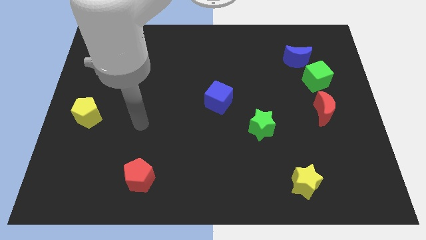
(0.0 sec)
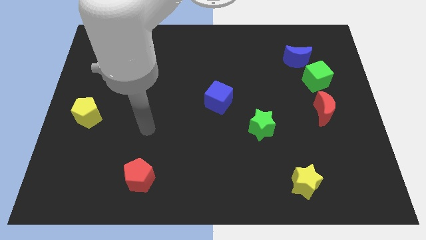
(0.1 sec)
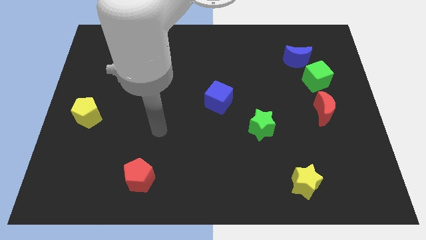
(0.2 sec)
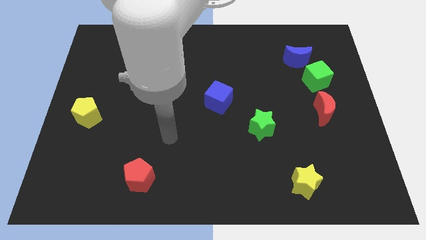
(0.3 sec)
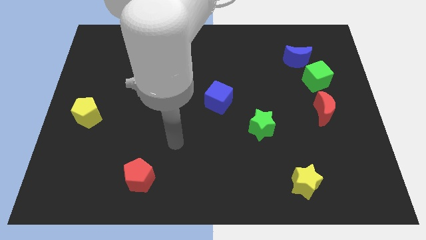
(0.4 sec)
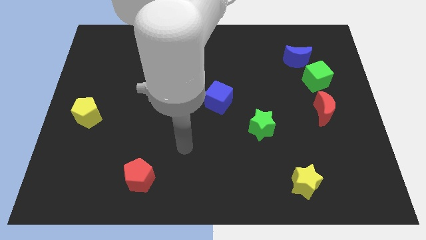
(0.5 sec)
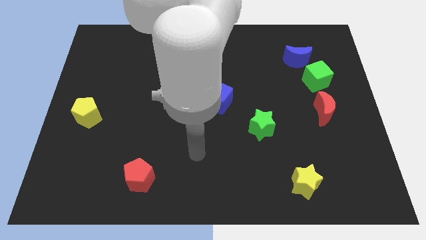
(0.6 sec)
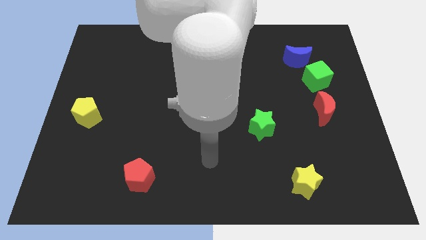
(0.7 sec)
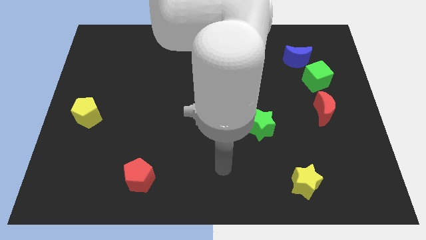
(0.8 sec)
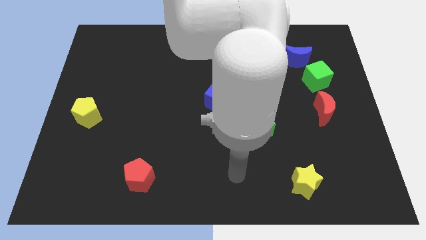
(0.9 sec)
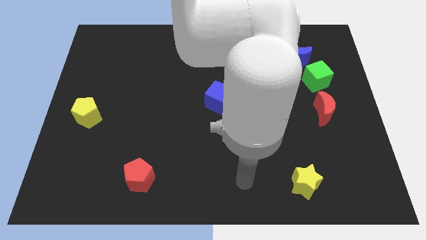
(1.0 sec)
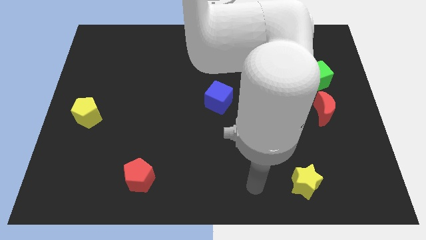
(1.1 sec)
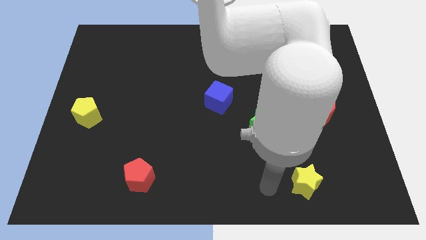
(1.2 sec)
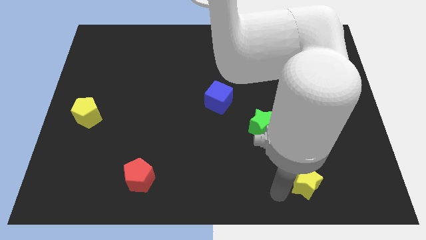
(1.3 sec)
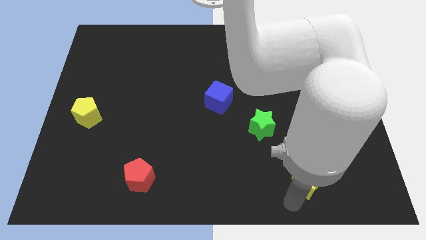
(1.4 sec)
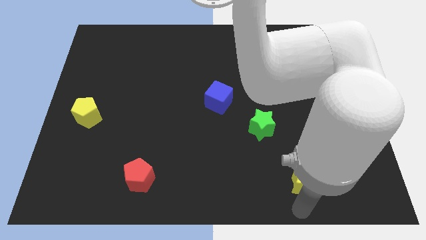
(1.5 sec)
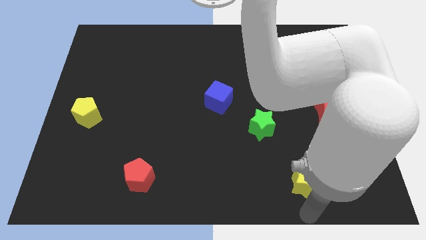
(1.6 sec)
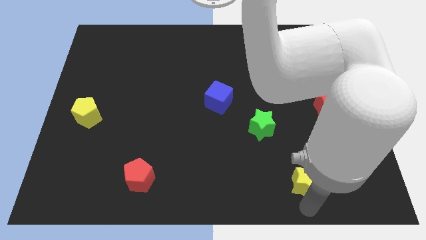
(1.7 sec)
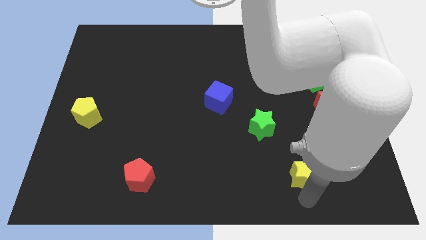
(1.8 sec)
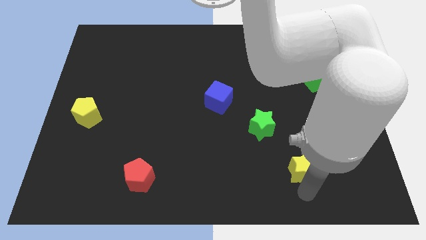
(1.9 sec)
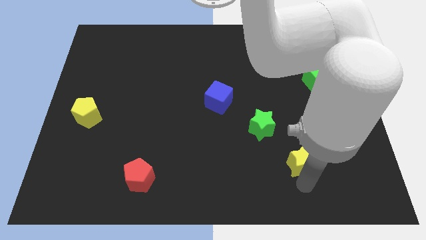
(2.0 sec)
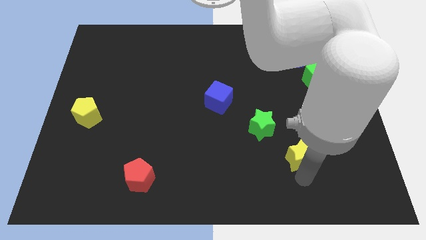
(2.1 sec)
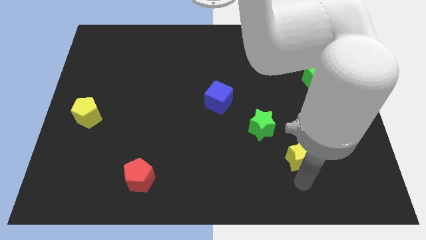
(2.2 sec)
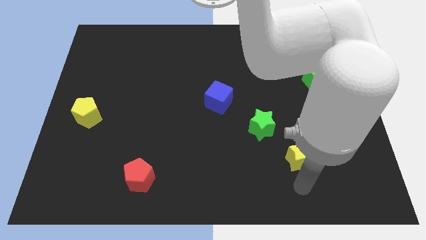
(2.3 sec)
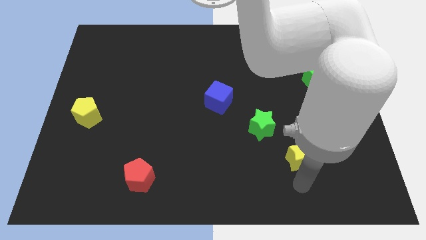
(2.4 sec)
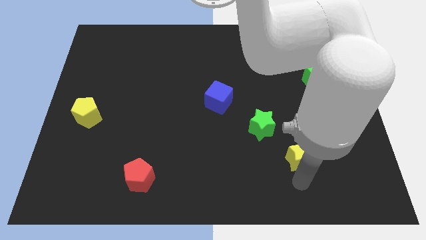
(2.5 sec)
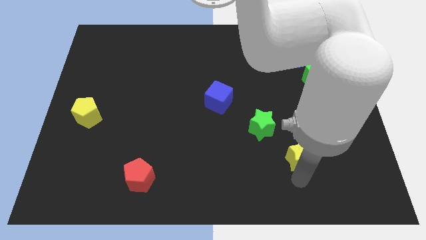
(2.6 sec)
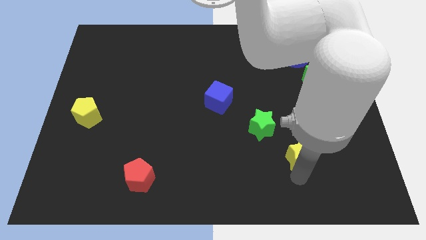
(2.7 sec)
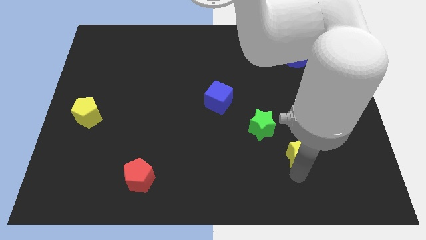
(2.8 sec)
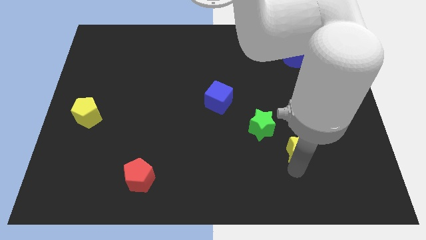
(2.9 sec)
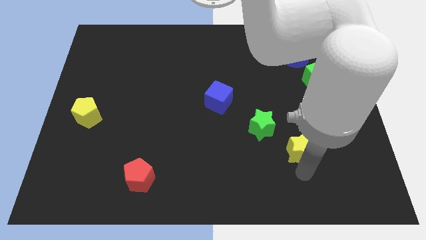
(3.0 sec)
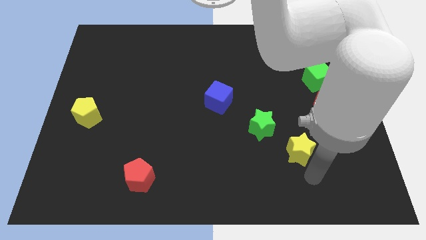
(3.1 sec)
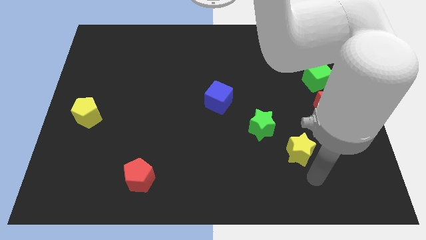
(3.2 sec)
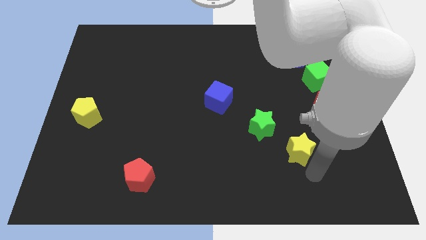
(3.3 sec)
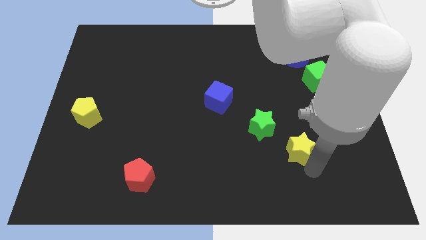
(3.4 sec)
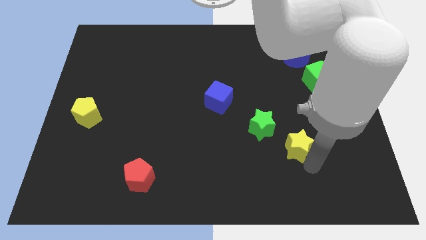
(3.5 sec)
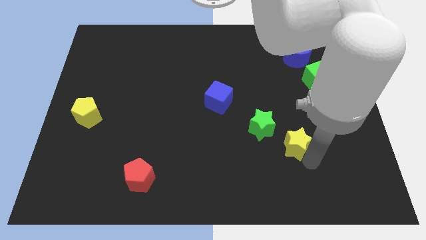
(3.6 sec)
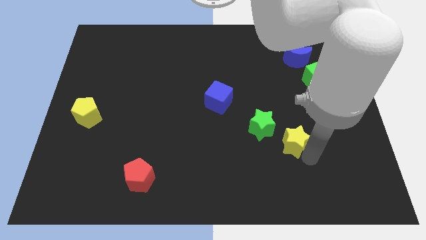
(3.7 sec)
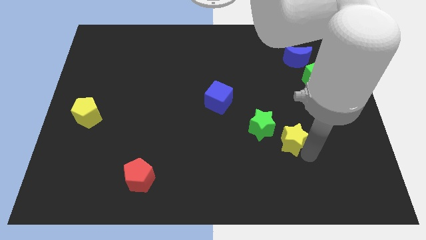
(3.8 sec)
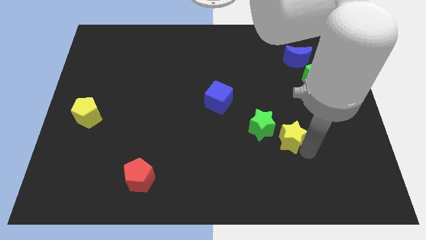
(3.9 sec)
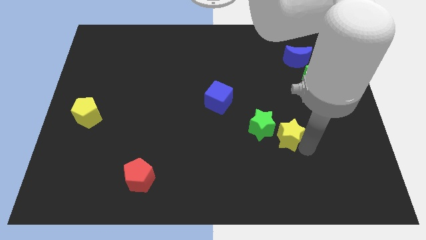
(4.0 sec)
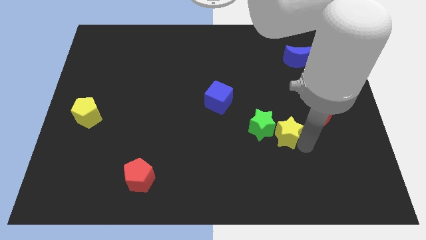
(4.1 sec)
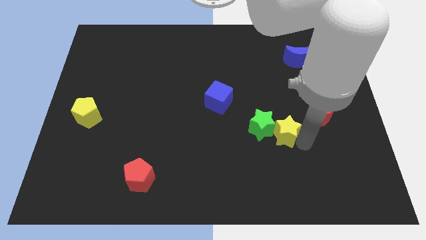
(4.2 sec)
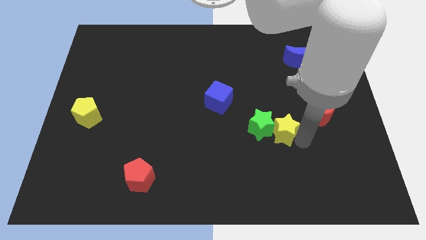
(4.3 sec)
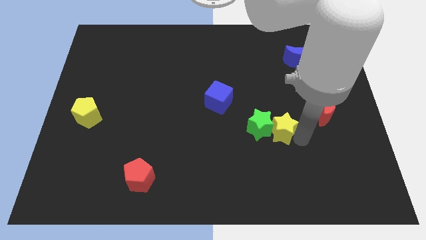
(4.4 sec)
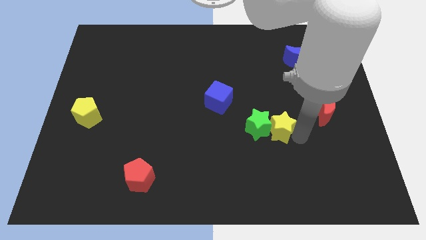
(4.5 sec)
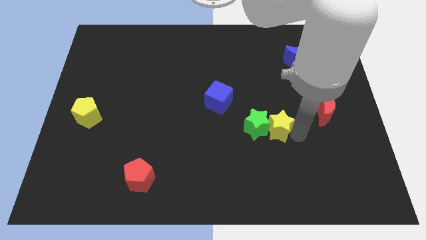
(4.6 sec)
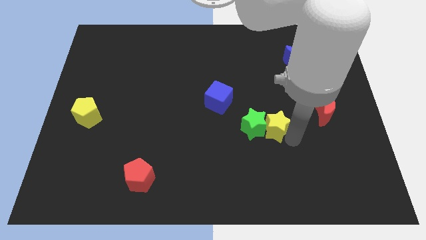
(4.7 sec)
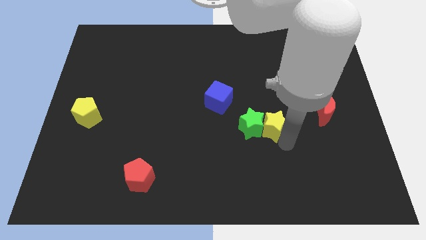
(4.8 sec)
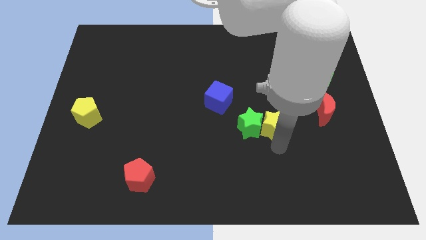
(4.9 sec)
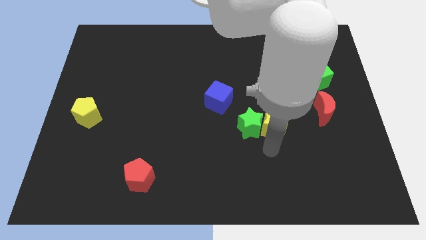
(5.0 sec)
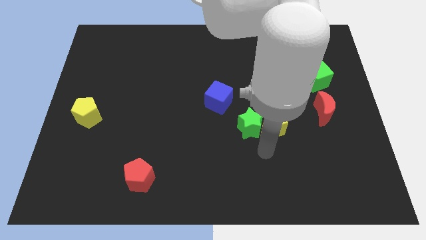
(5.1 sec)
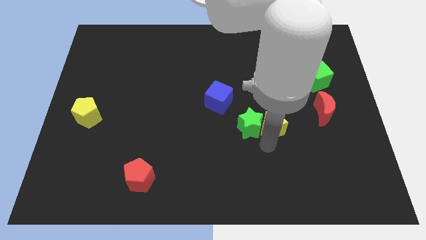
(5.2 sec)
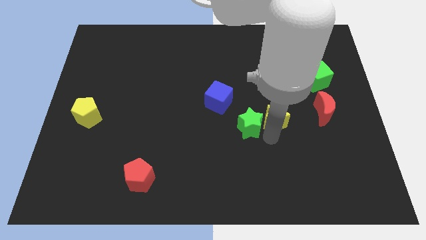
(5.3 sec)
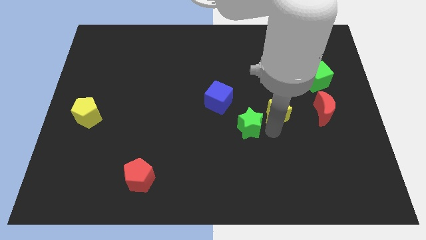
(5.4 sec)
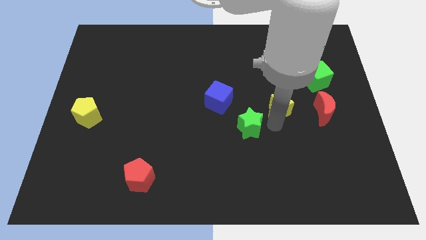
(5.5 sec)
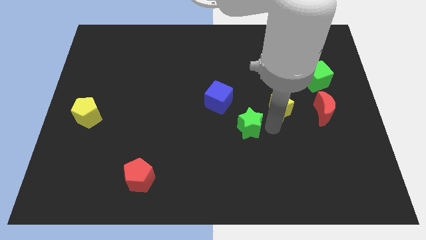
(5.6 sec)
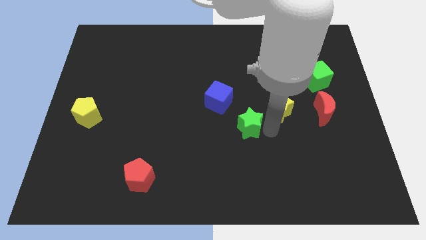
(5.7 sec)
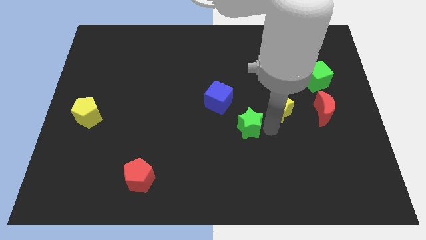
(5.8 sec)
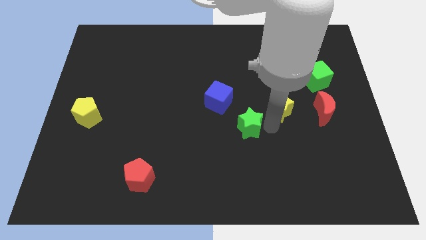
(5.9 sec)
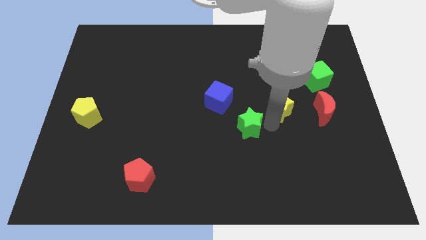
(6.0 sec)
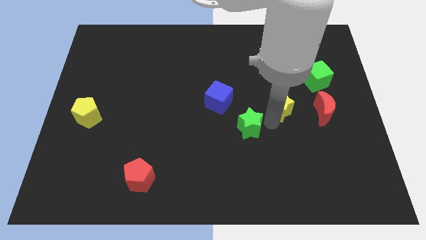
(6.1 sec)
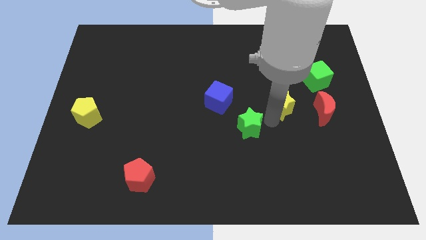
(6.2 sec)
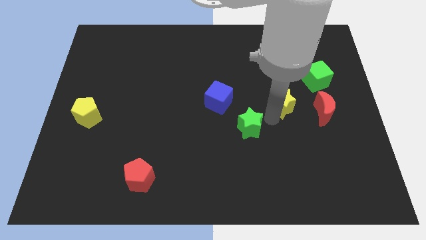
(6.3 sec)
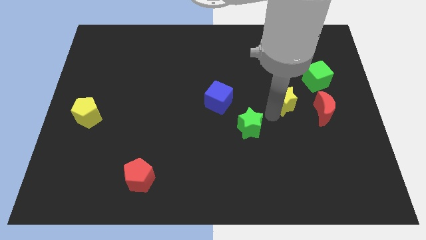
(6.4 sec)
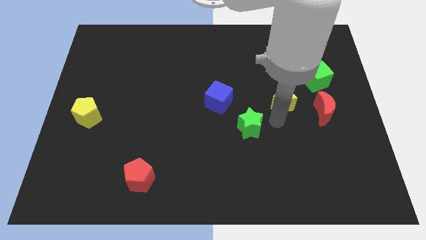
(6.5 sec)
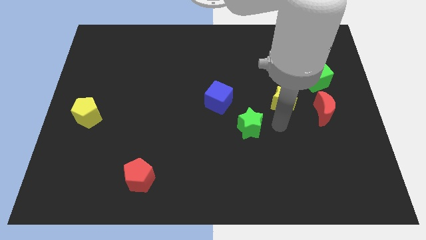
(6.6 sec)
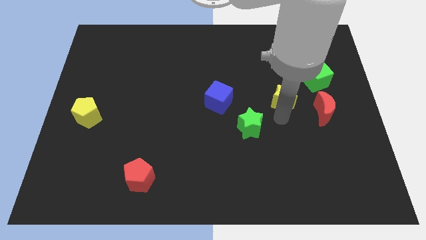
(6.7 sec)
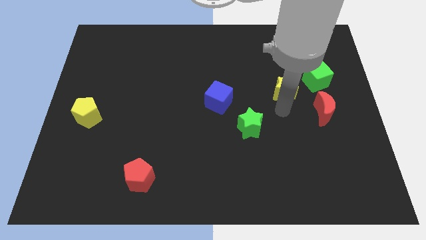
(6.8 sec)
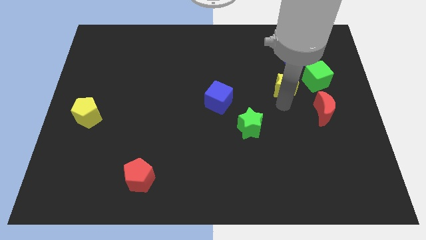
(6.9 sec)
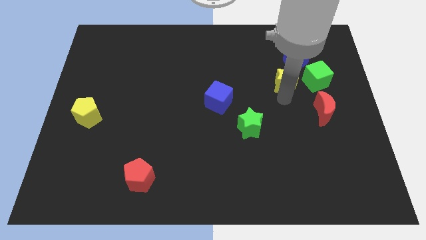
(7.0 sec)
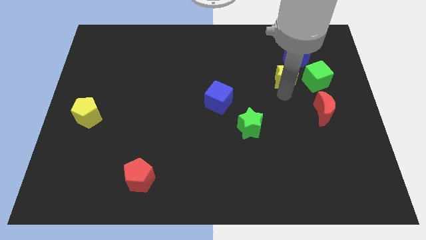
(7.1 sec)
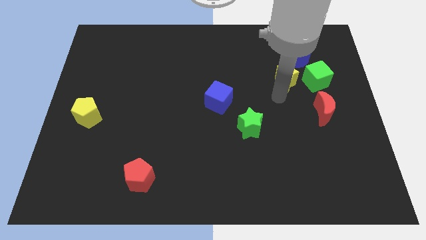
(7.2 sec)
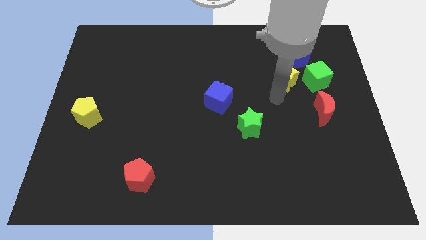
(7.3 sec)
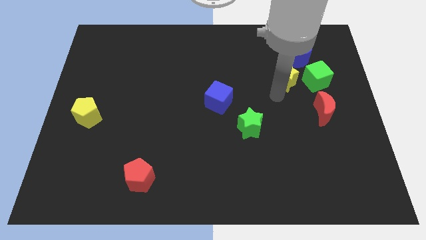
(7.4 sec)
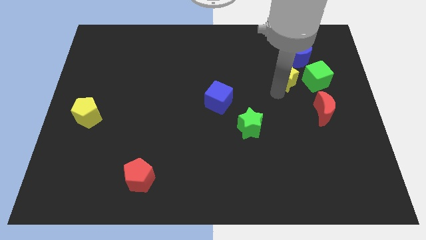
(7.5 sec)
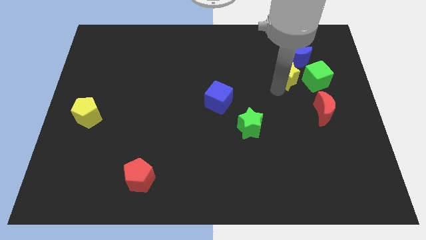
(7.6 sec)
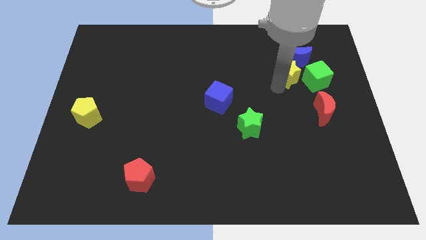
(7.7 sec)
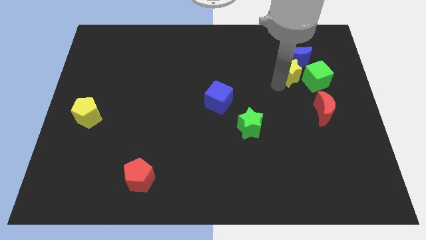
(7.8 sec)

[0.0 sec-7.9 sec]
slide the yellow star close to the blue moon

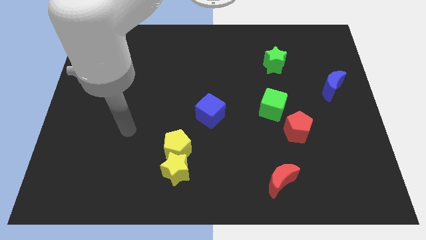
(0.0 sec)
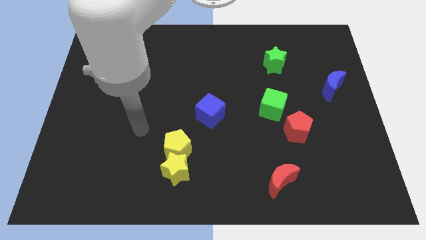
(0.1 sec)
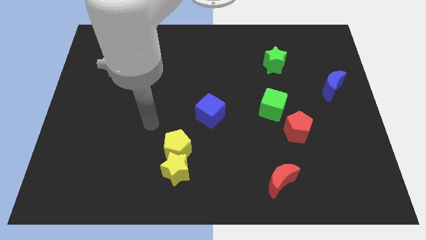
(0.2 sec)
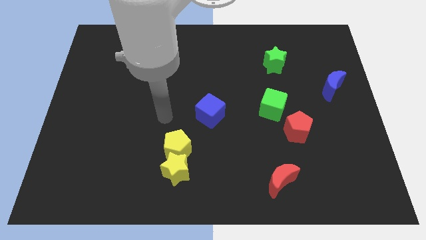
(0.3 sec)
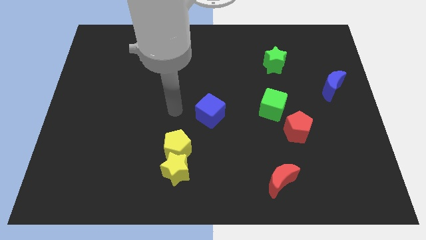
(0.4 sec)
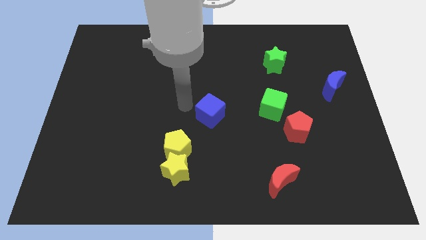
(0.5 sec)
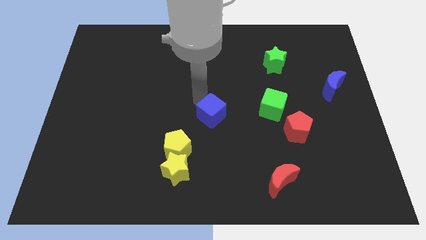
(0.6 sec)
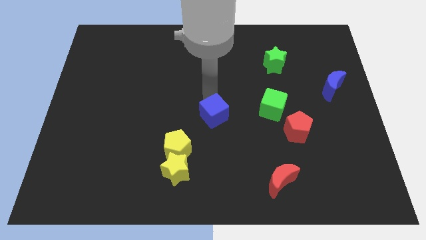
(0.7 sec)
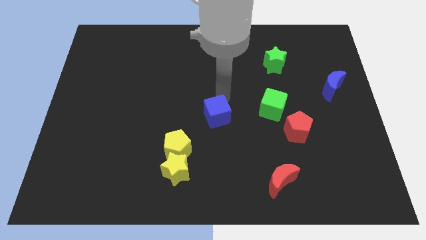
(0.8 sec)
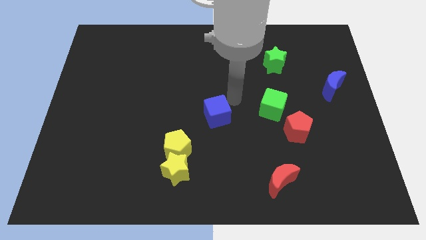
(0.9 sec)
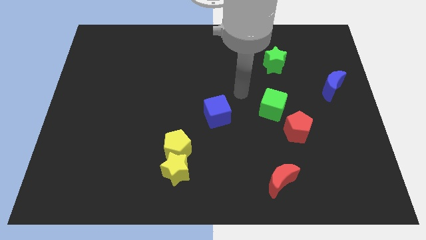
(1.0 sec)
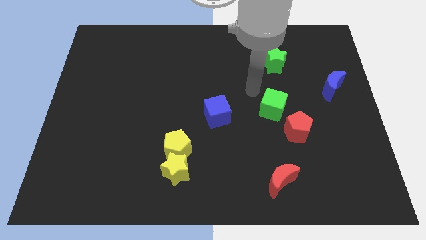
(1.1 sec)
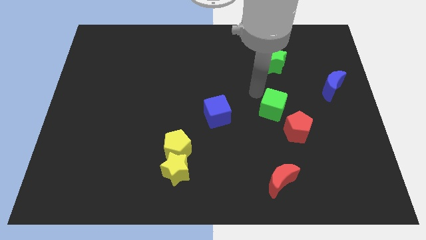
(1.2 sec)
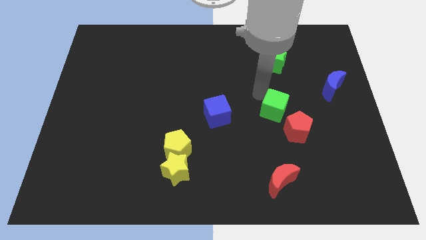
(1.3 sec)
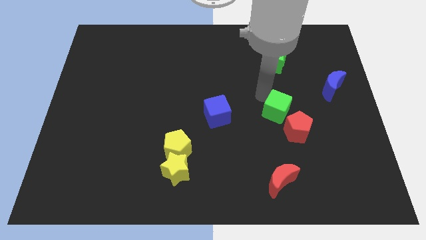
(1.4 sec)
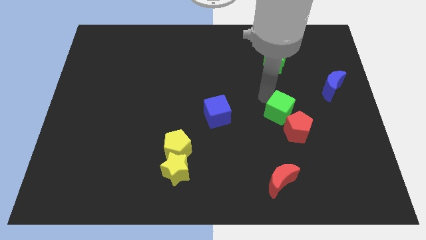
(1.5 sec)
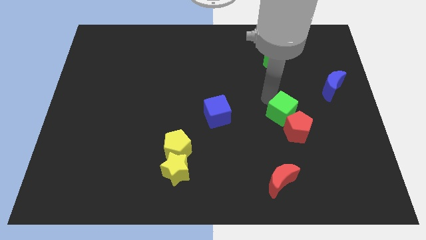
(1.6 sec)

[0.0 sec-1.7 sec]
put the green cube to the red pentagon
